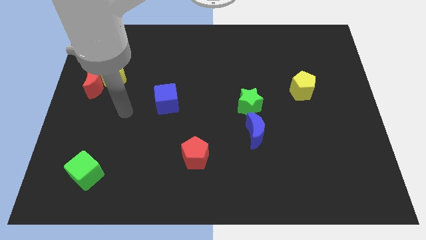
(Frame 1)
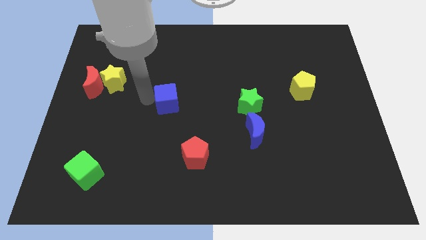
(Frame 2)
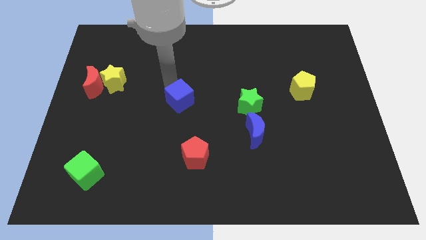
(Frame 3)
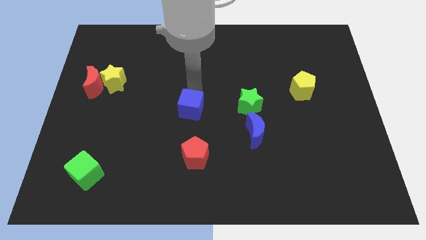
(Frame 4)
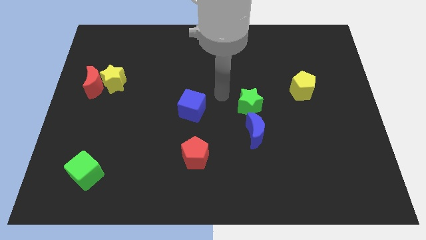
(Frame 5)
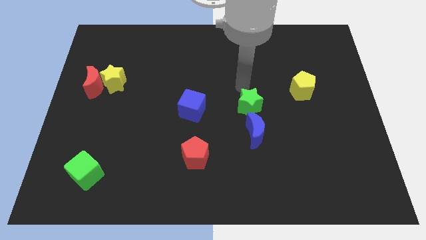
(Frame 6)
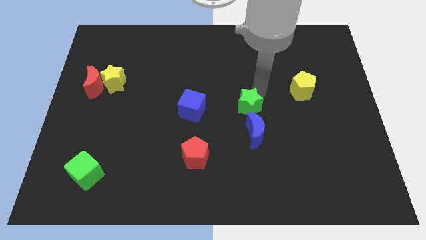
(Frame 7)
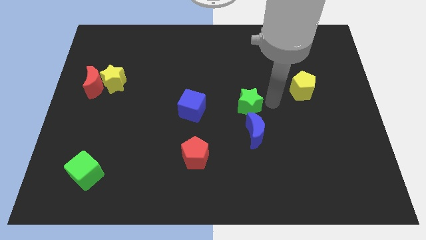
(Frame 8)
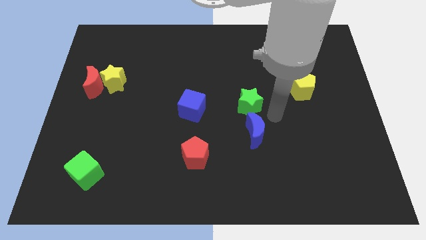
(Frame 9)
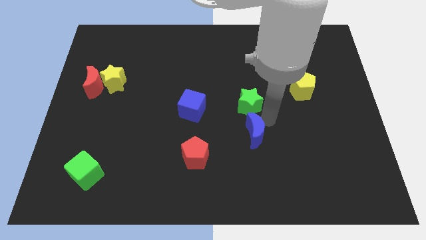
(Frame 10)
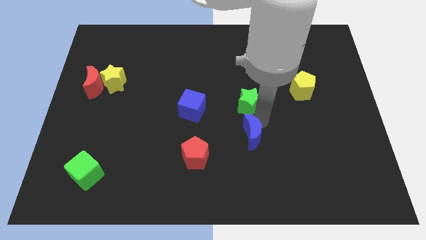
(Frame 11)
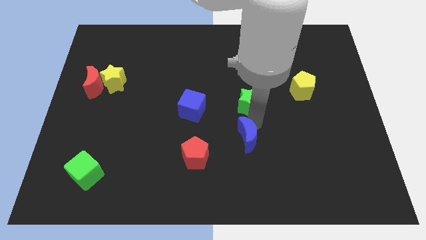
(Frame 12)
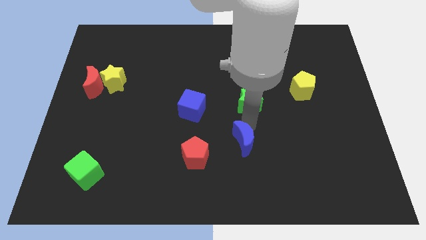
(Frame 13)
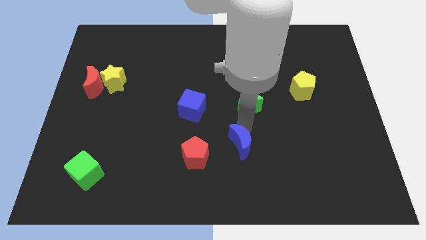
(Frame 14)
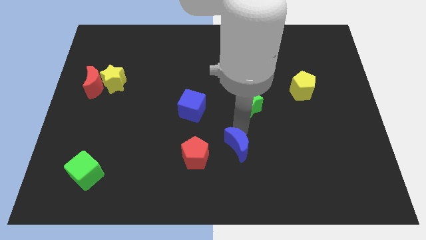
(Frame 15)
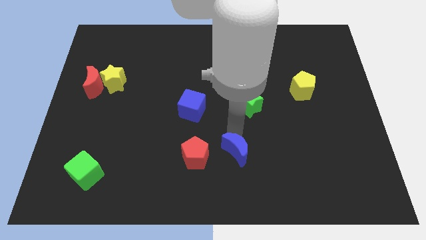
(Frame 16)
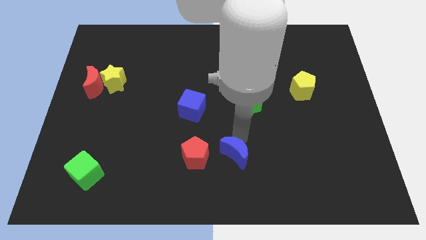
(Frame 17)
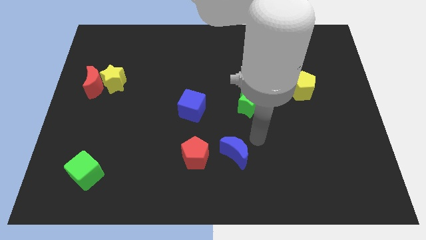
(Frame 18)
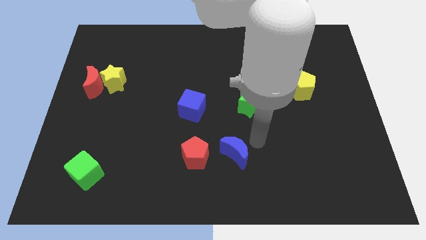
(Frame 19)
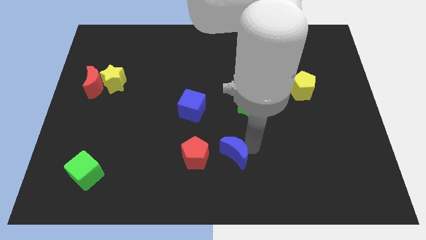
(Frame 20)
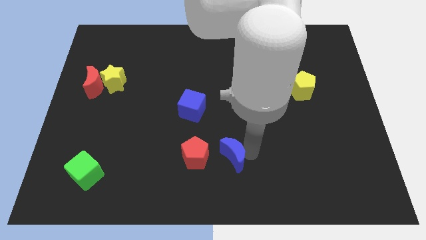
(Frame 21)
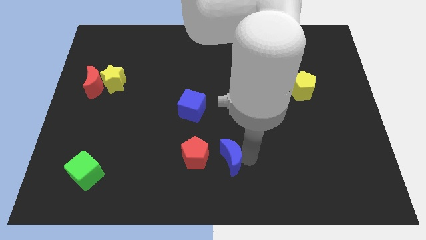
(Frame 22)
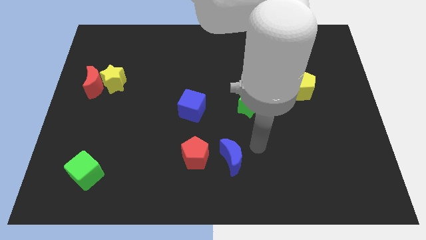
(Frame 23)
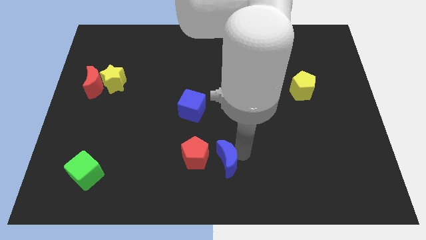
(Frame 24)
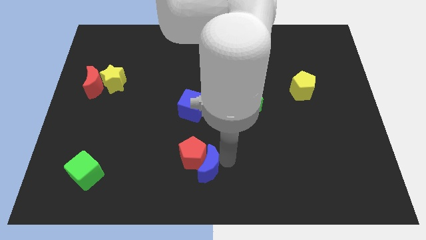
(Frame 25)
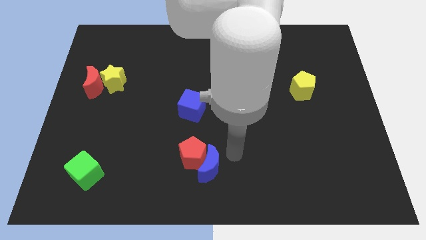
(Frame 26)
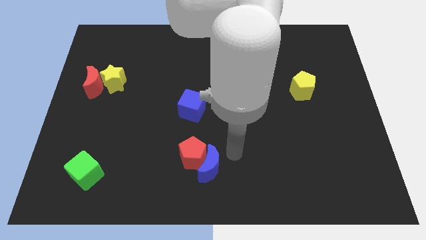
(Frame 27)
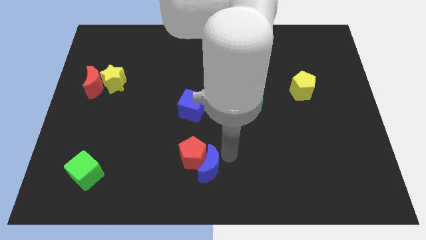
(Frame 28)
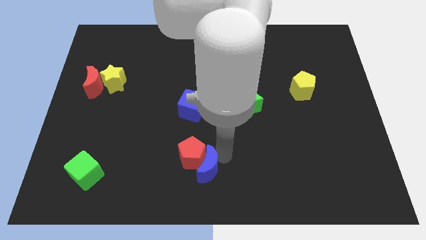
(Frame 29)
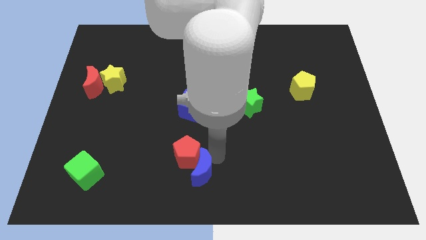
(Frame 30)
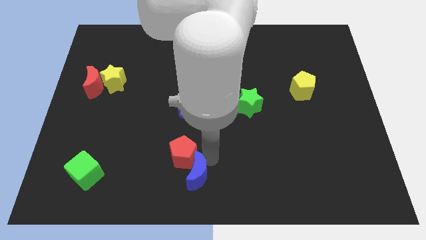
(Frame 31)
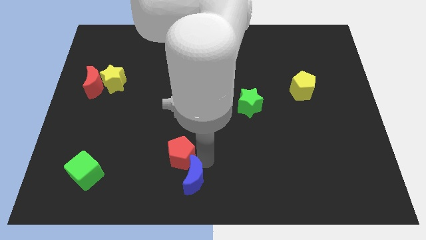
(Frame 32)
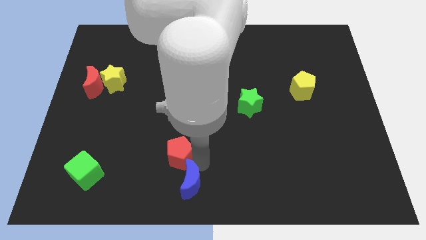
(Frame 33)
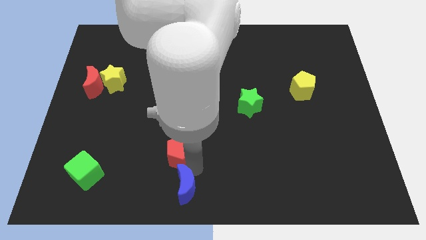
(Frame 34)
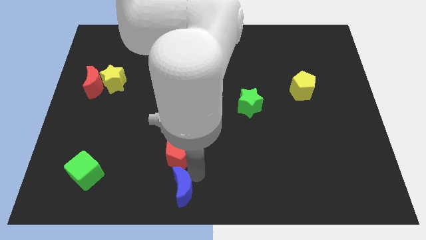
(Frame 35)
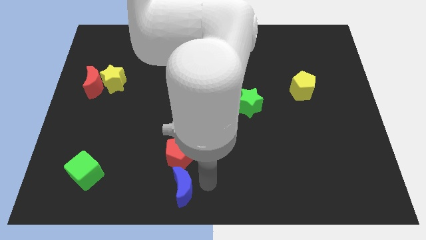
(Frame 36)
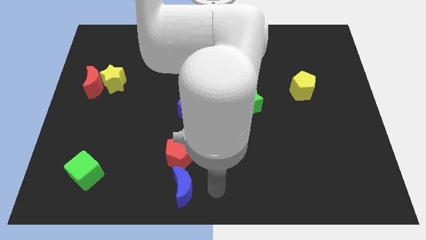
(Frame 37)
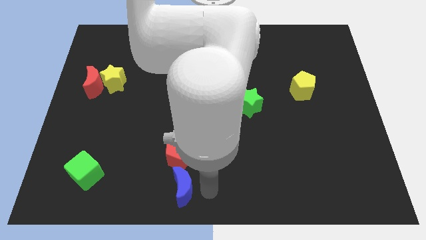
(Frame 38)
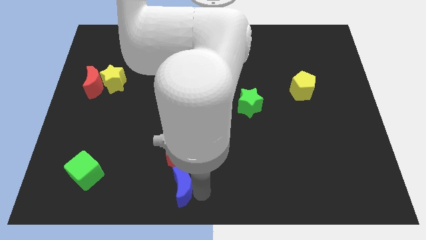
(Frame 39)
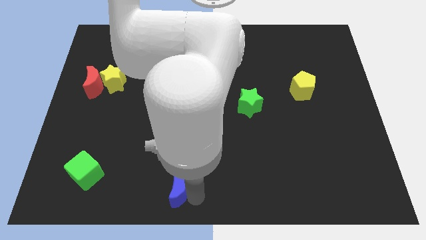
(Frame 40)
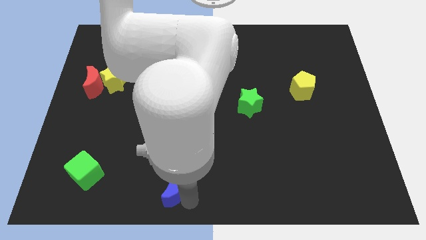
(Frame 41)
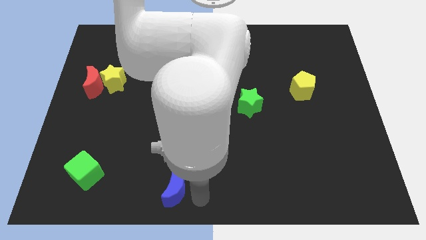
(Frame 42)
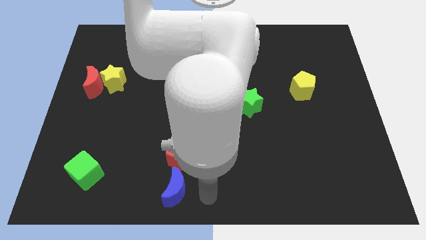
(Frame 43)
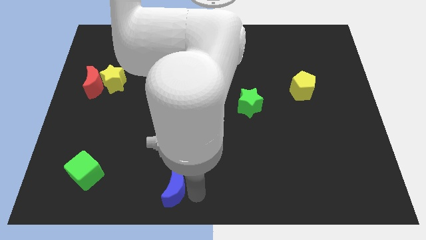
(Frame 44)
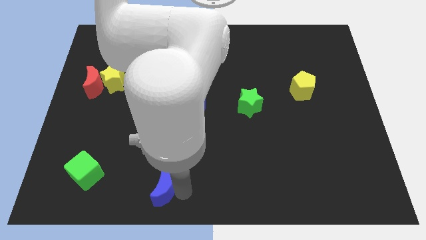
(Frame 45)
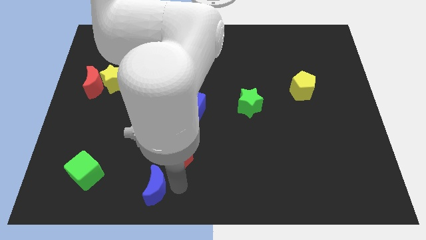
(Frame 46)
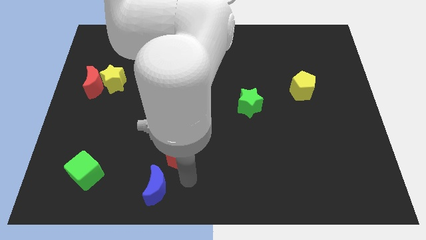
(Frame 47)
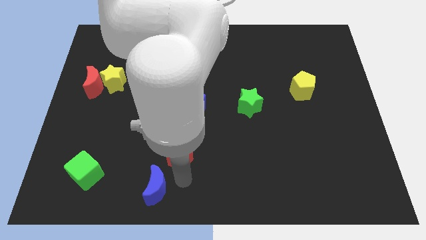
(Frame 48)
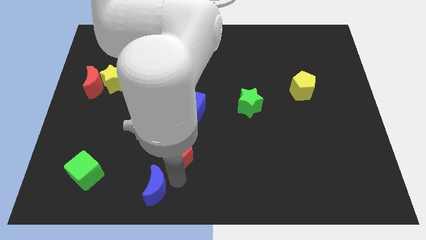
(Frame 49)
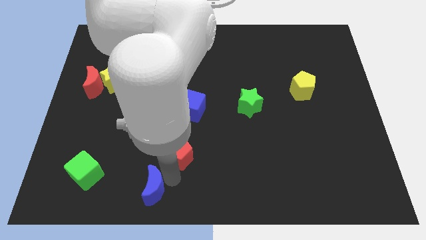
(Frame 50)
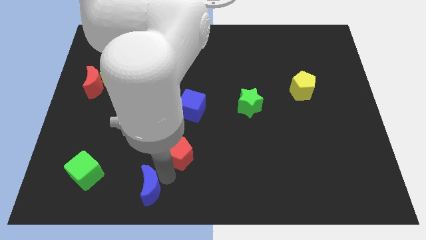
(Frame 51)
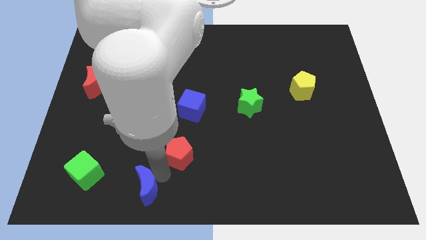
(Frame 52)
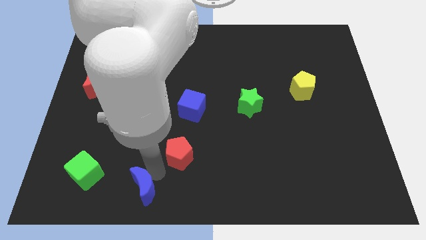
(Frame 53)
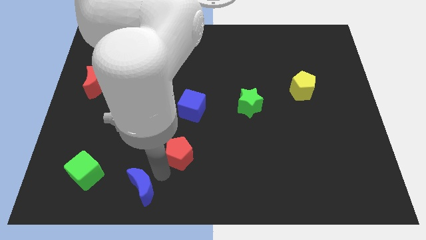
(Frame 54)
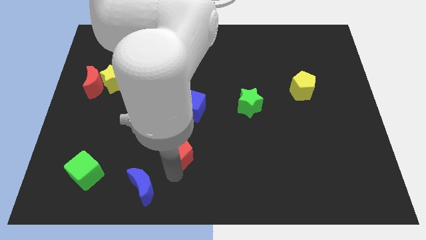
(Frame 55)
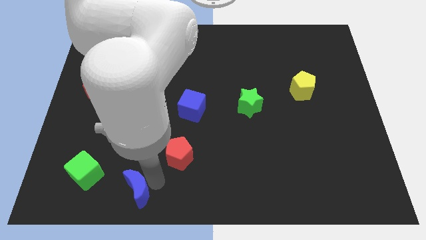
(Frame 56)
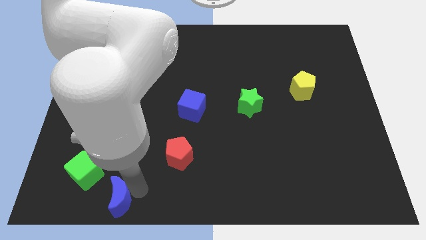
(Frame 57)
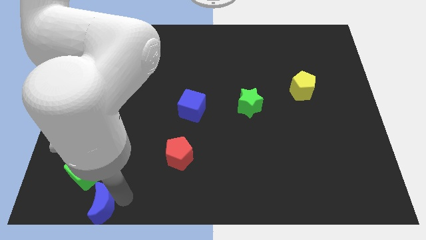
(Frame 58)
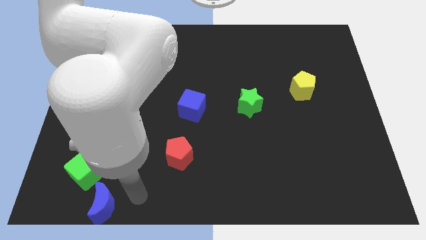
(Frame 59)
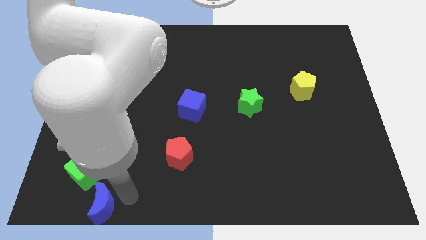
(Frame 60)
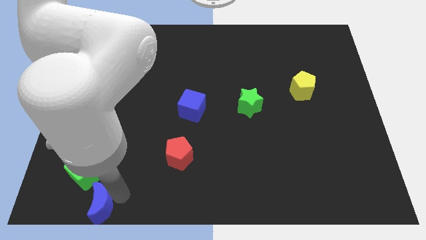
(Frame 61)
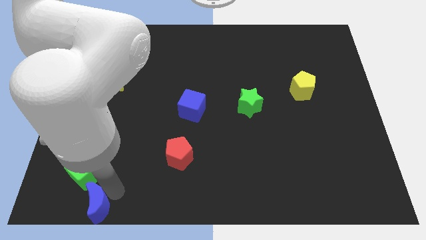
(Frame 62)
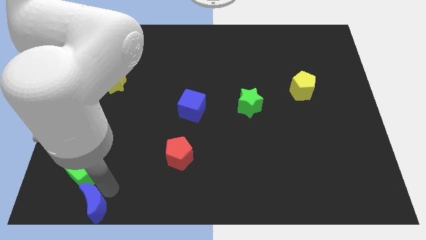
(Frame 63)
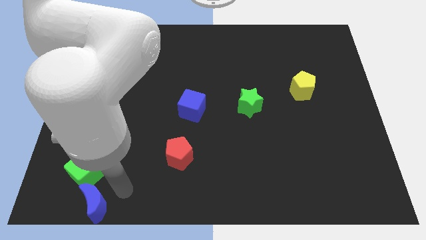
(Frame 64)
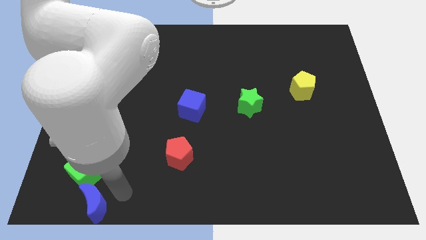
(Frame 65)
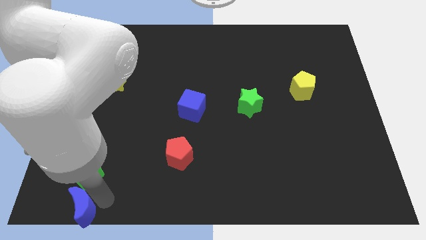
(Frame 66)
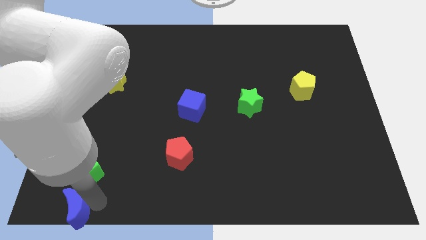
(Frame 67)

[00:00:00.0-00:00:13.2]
put the blue moon to the bottom left corner

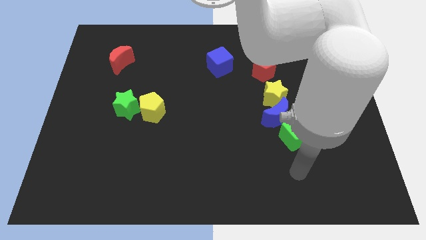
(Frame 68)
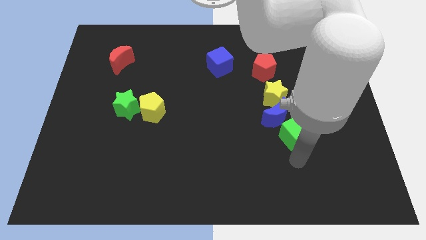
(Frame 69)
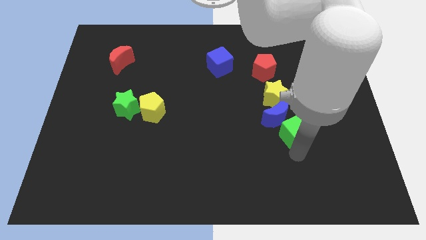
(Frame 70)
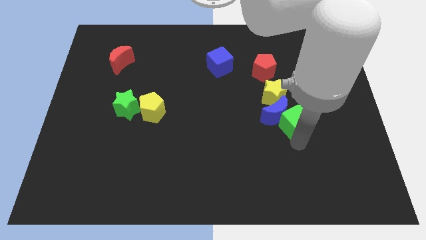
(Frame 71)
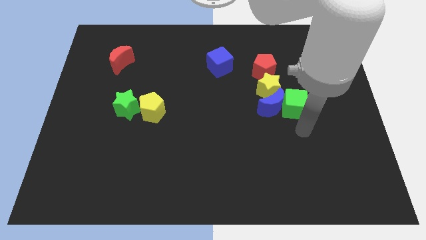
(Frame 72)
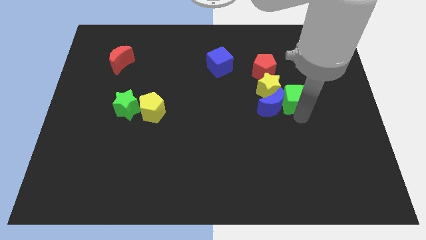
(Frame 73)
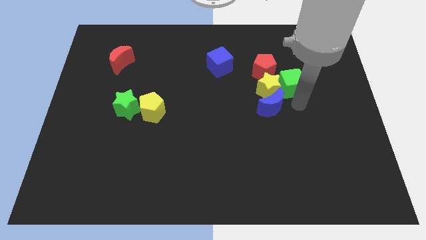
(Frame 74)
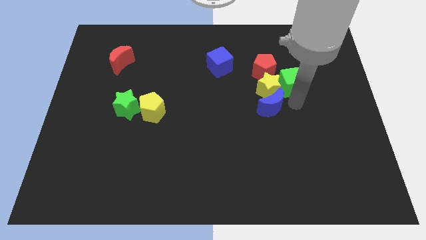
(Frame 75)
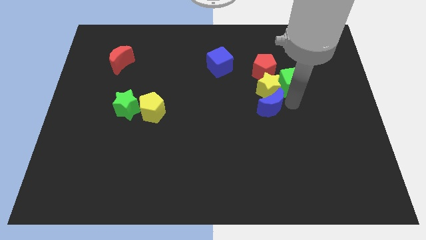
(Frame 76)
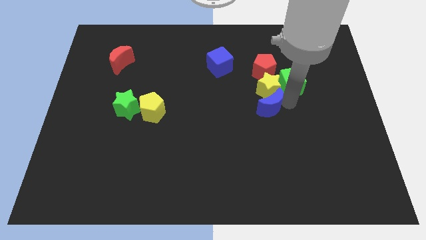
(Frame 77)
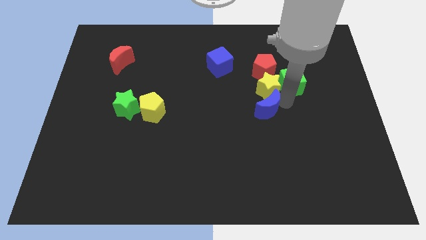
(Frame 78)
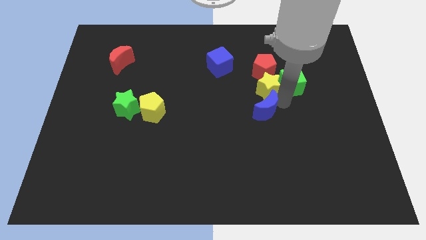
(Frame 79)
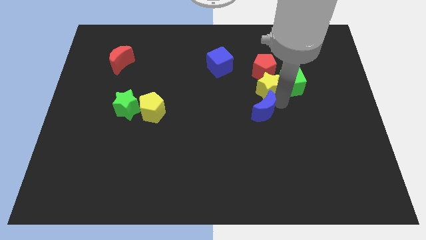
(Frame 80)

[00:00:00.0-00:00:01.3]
slide the blue moon to the center
